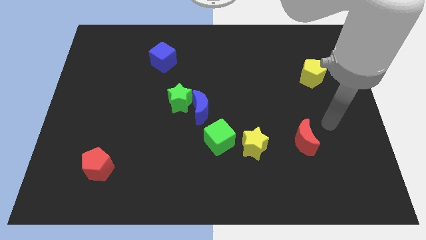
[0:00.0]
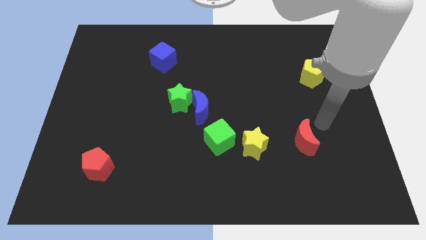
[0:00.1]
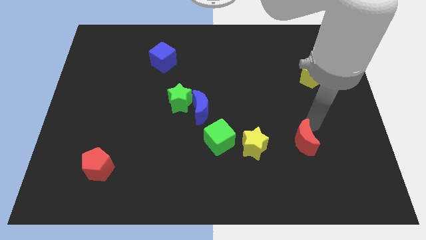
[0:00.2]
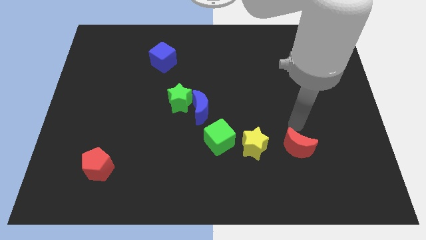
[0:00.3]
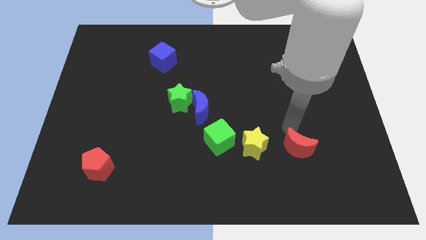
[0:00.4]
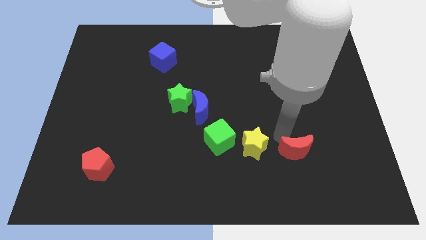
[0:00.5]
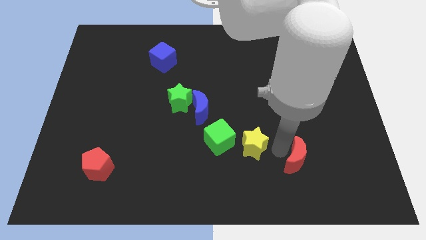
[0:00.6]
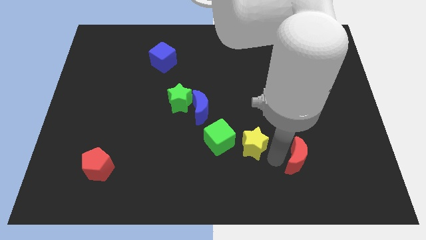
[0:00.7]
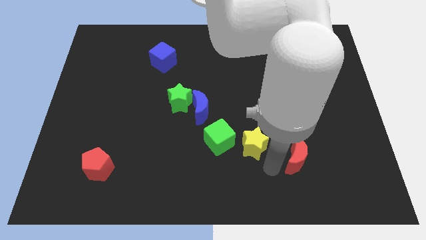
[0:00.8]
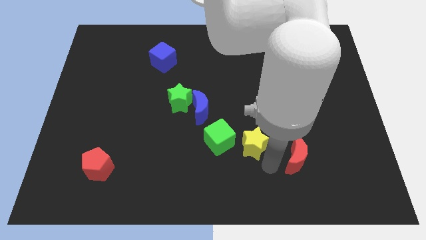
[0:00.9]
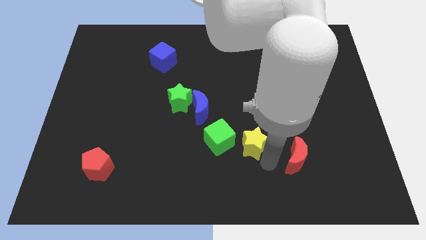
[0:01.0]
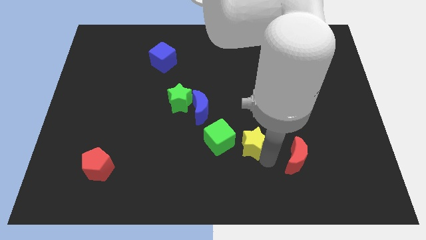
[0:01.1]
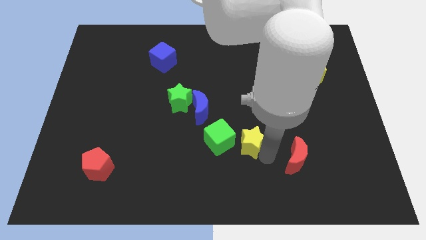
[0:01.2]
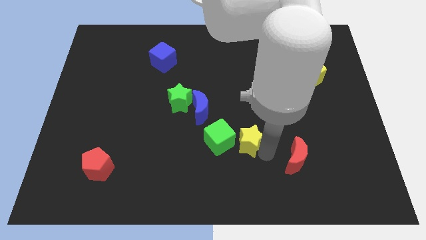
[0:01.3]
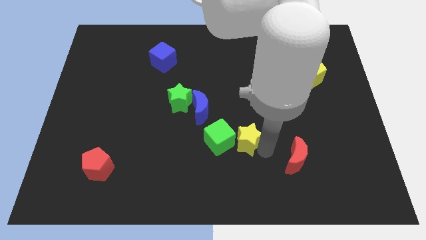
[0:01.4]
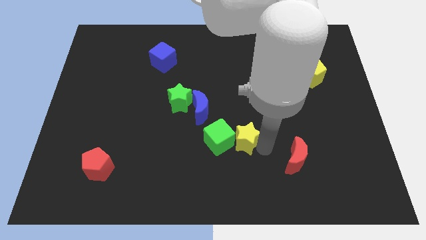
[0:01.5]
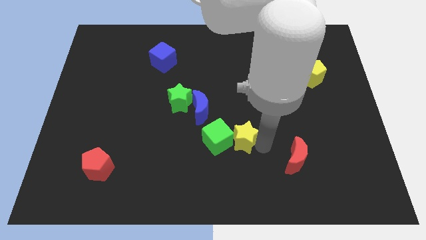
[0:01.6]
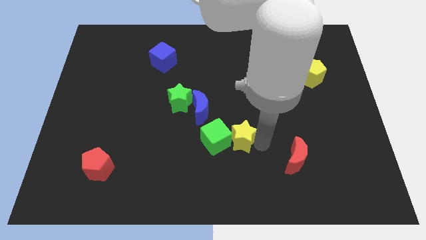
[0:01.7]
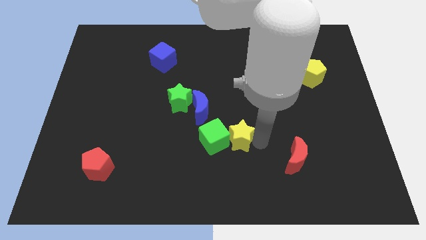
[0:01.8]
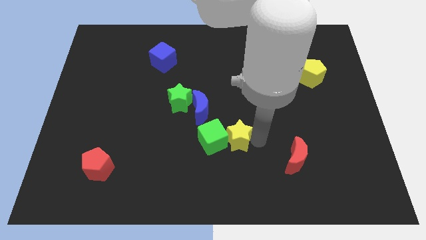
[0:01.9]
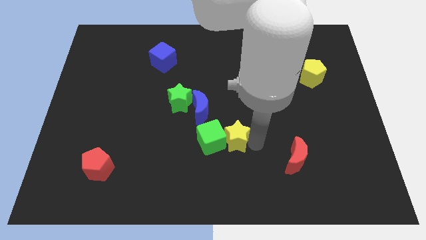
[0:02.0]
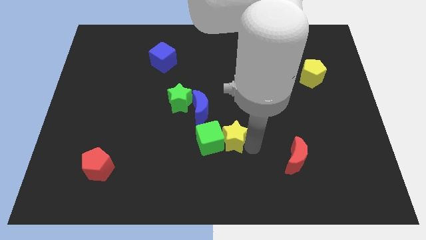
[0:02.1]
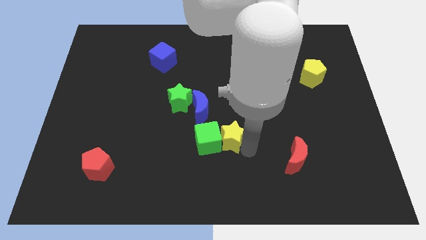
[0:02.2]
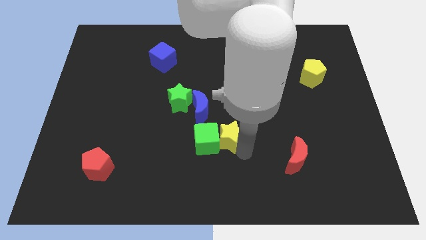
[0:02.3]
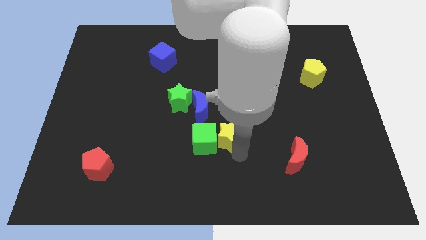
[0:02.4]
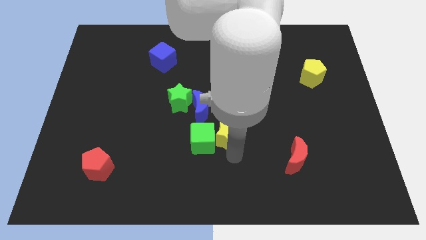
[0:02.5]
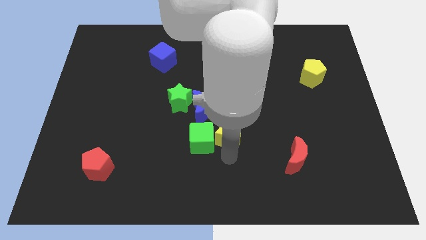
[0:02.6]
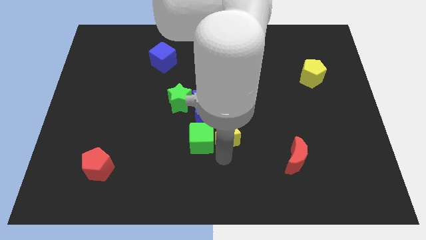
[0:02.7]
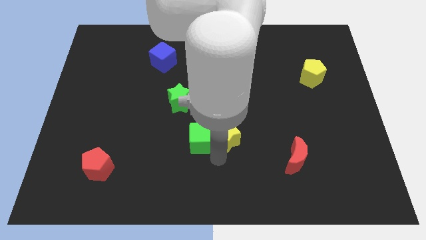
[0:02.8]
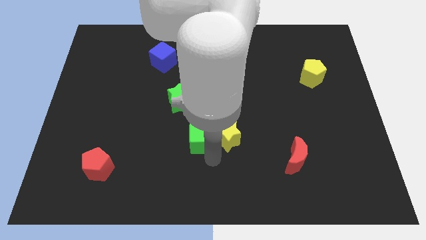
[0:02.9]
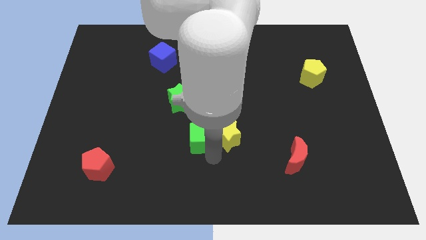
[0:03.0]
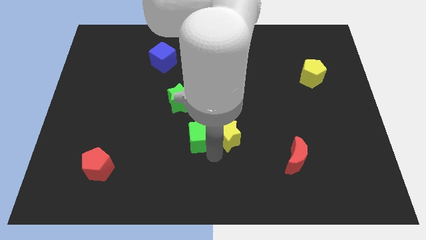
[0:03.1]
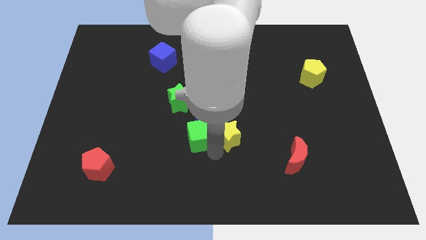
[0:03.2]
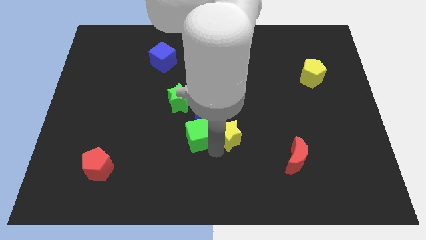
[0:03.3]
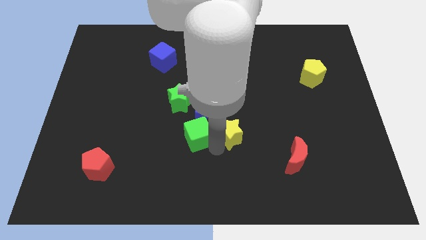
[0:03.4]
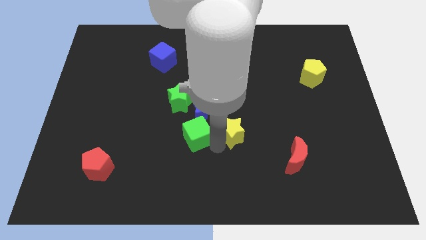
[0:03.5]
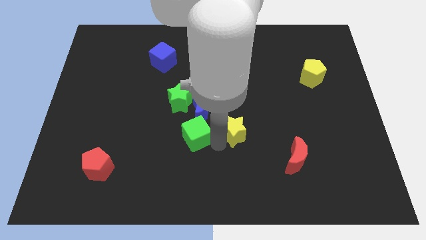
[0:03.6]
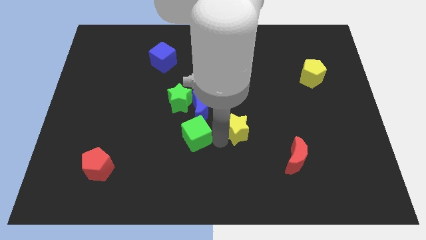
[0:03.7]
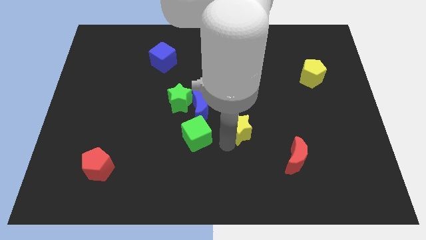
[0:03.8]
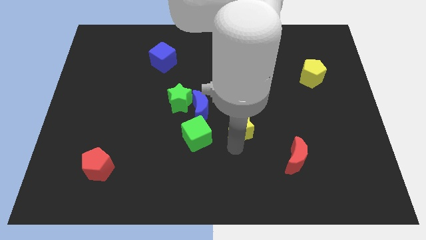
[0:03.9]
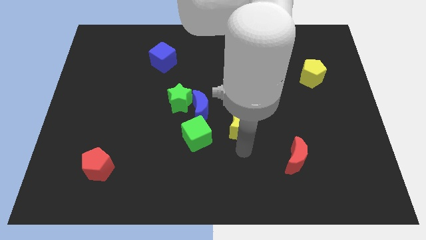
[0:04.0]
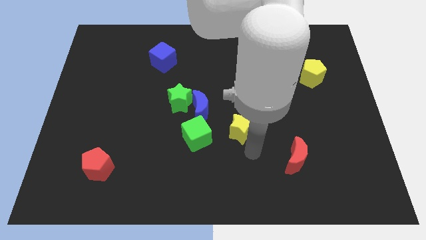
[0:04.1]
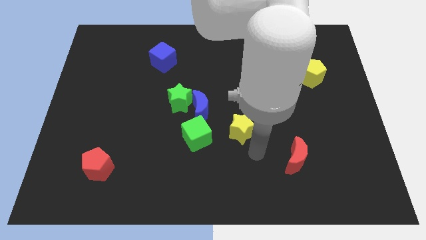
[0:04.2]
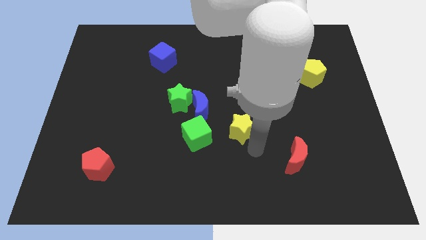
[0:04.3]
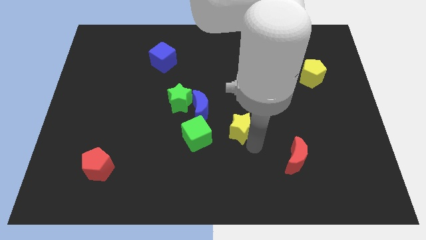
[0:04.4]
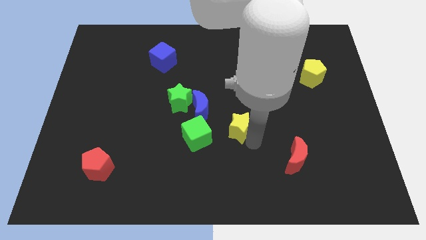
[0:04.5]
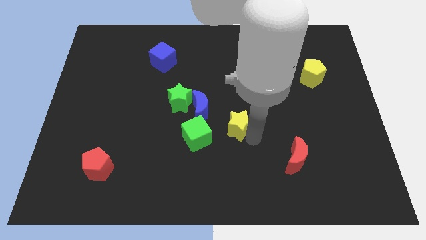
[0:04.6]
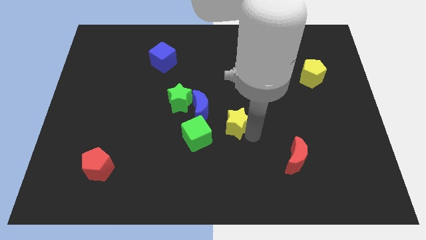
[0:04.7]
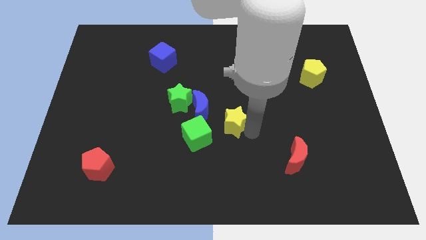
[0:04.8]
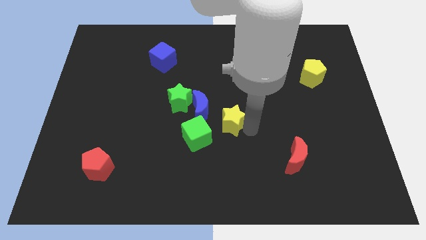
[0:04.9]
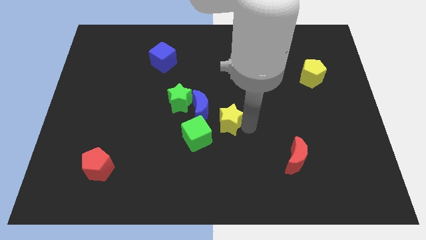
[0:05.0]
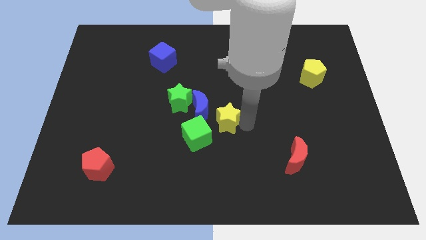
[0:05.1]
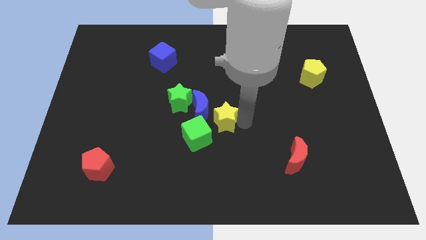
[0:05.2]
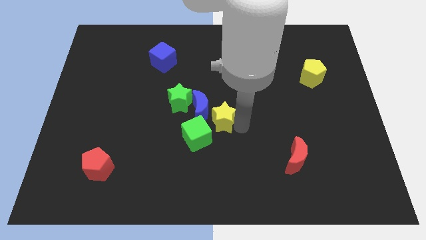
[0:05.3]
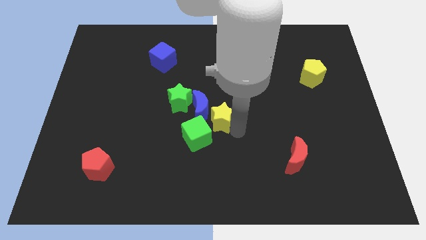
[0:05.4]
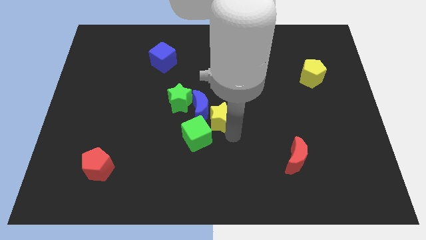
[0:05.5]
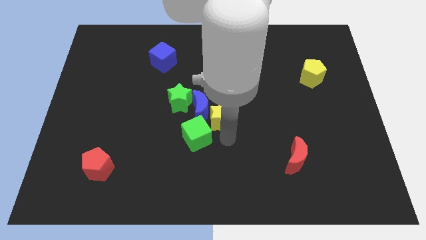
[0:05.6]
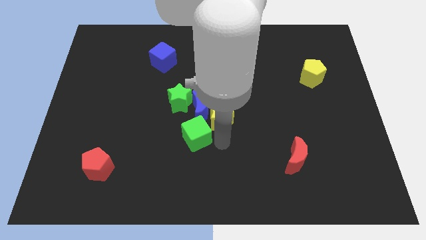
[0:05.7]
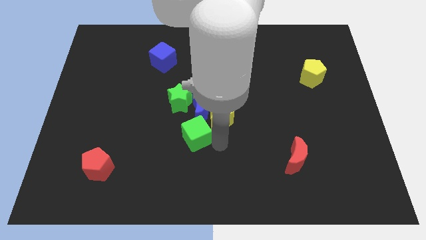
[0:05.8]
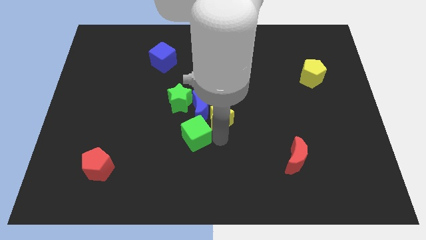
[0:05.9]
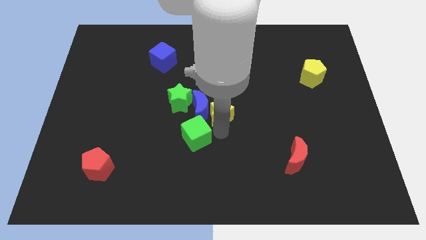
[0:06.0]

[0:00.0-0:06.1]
move the yellow star just right of the green star

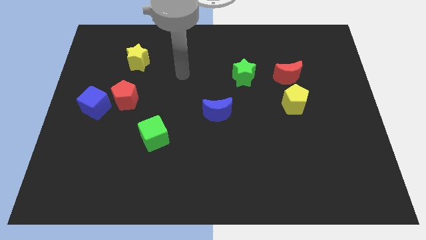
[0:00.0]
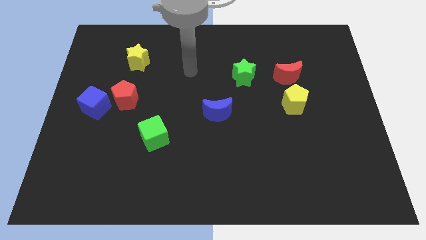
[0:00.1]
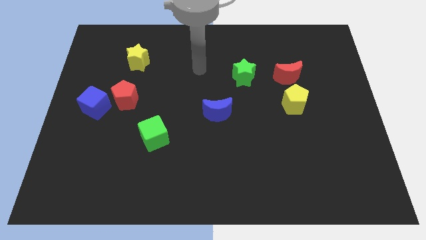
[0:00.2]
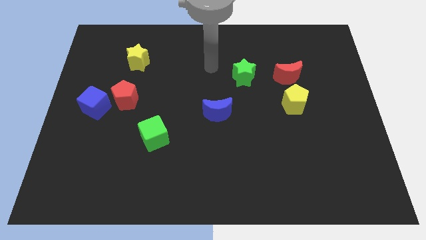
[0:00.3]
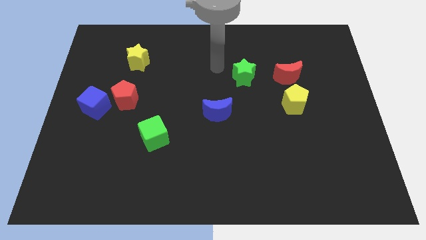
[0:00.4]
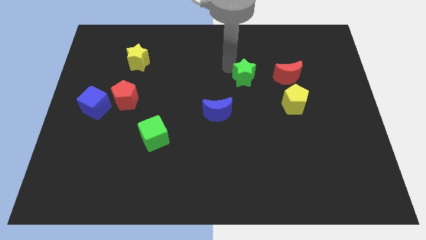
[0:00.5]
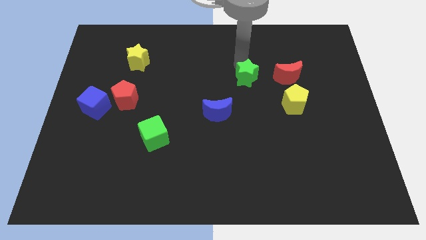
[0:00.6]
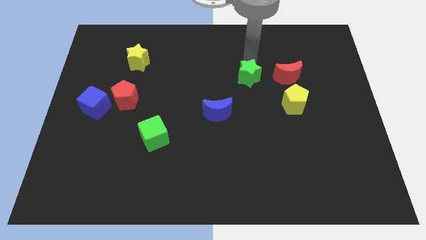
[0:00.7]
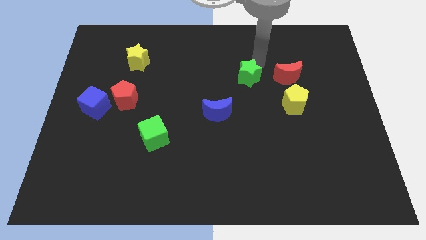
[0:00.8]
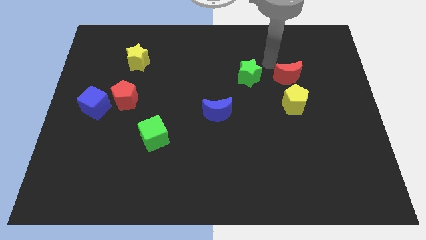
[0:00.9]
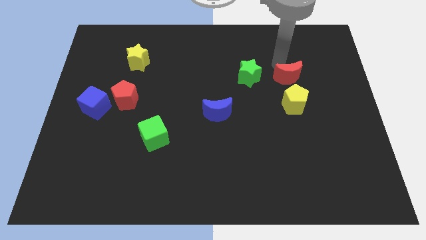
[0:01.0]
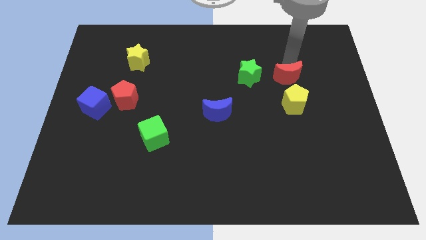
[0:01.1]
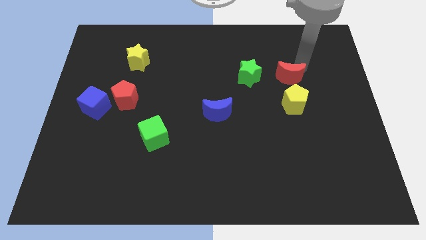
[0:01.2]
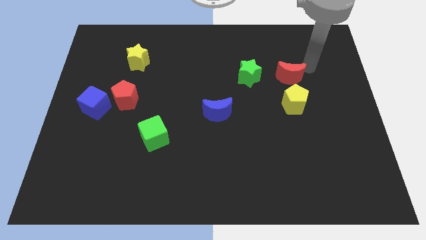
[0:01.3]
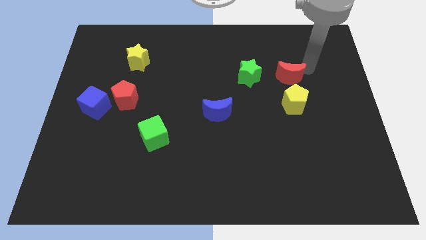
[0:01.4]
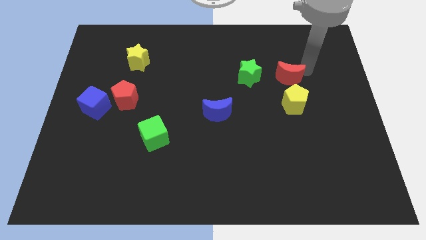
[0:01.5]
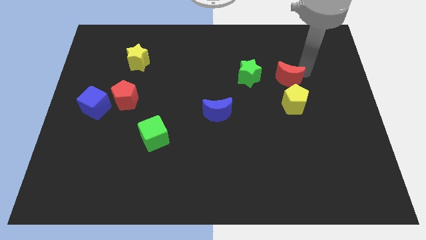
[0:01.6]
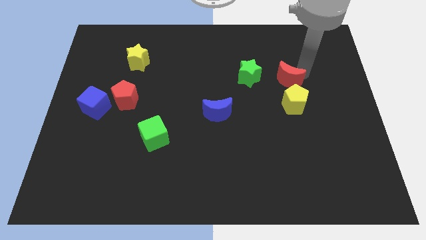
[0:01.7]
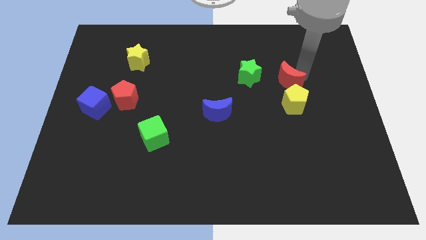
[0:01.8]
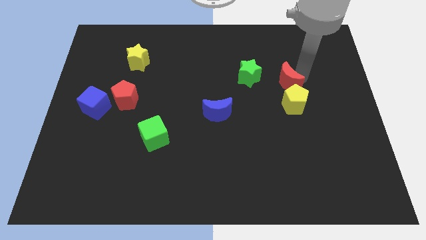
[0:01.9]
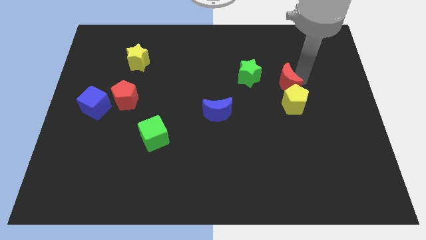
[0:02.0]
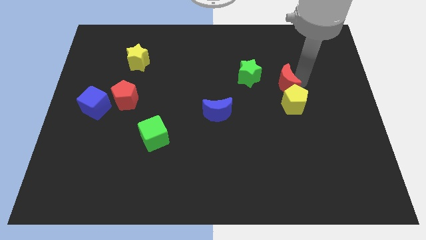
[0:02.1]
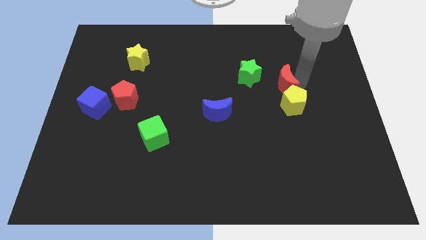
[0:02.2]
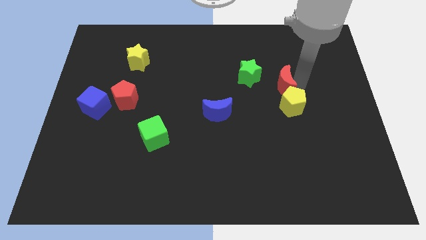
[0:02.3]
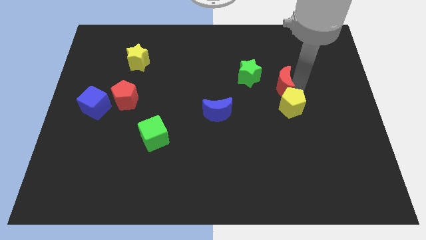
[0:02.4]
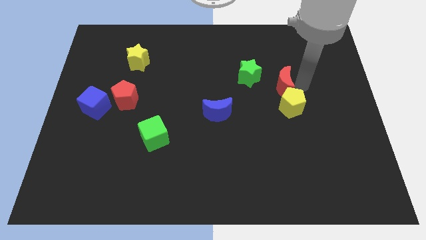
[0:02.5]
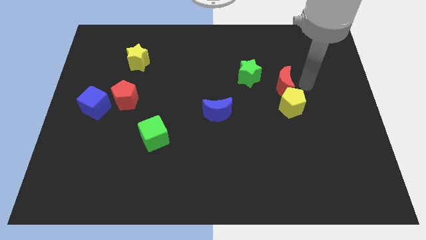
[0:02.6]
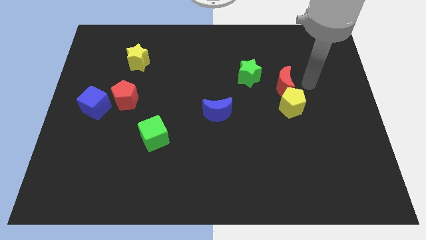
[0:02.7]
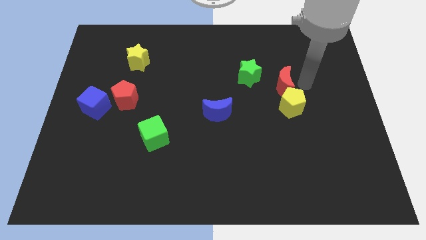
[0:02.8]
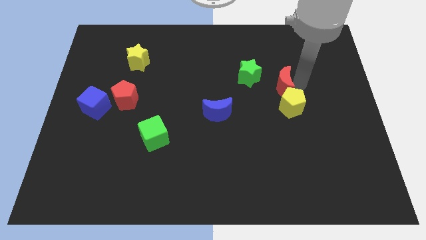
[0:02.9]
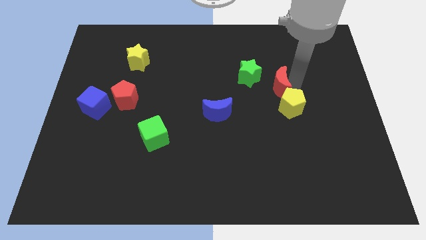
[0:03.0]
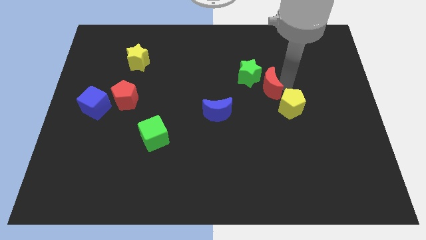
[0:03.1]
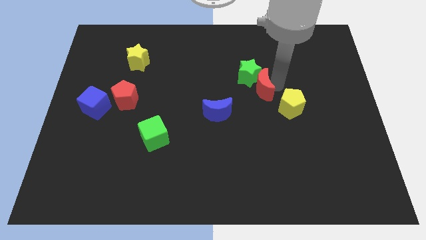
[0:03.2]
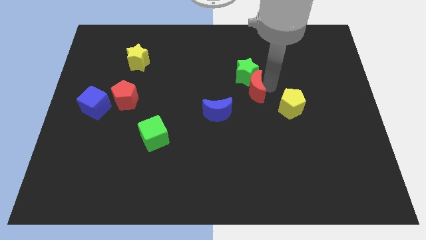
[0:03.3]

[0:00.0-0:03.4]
move the red moon to the top right of the blue moon
